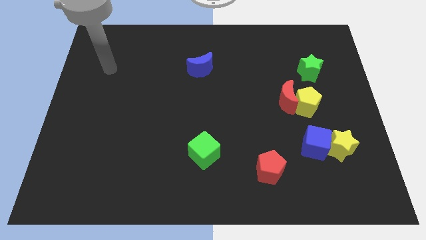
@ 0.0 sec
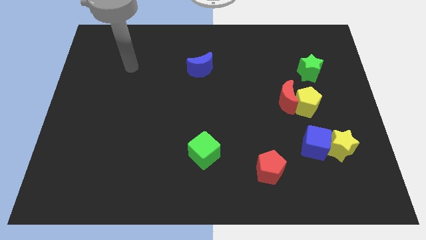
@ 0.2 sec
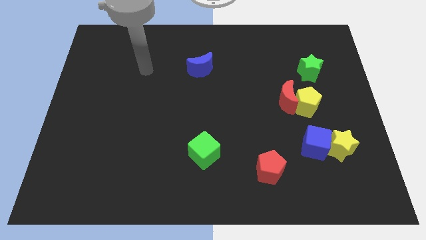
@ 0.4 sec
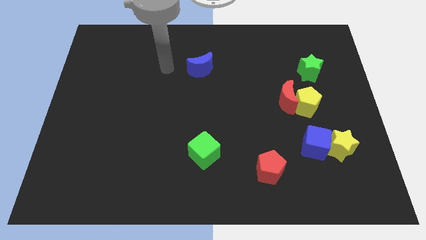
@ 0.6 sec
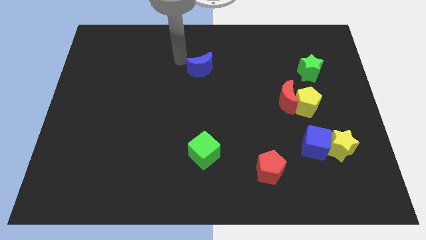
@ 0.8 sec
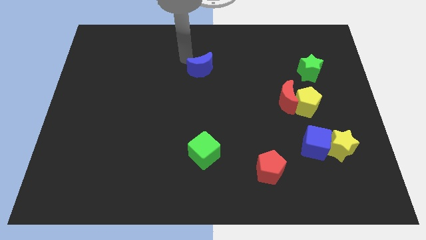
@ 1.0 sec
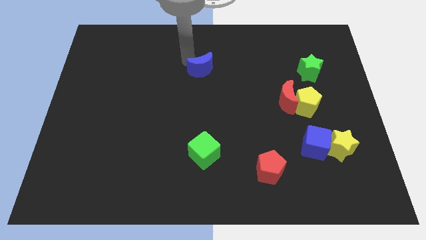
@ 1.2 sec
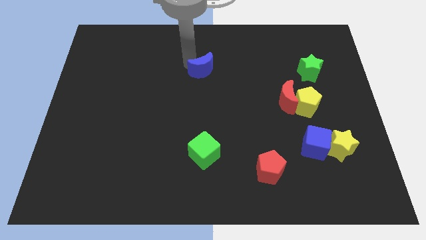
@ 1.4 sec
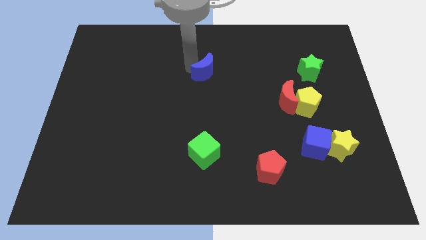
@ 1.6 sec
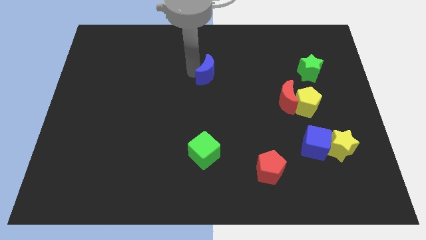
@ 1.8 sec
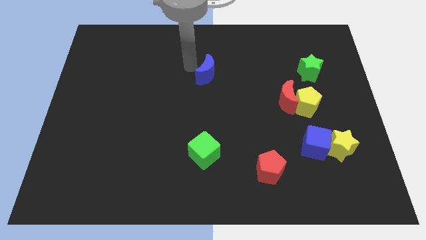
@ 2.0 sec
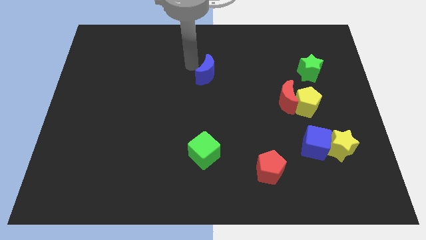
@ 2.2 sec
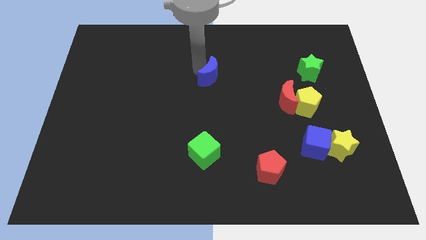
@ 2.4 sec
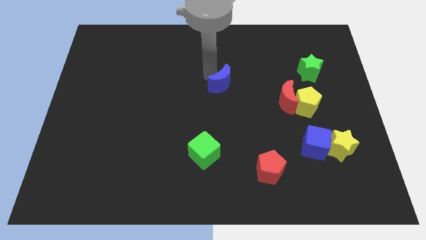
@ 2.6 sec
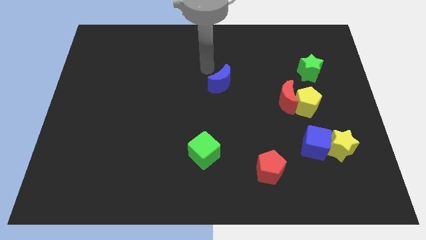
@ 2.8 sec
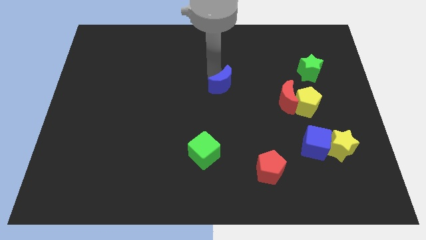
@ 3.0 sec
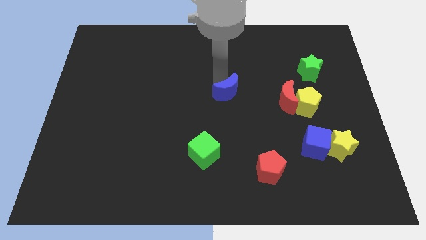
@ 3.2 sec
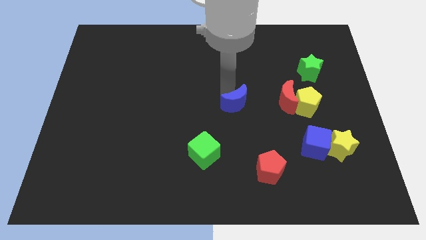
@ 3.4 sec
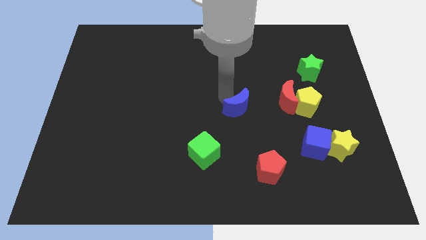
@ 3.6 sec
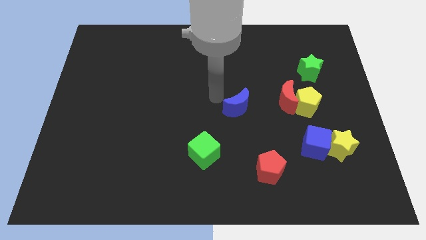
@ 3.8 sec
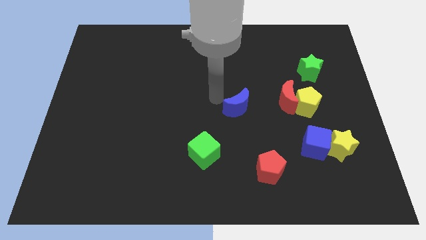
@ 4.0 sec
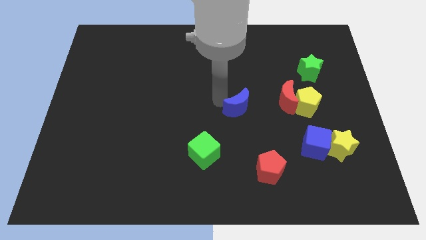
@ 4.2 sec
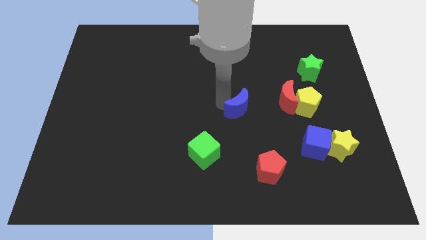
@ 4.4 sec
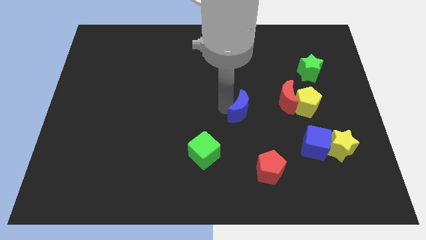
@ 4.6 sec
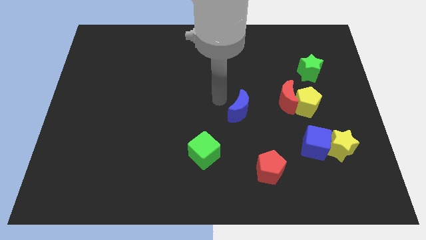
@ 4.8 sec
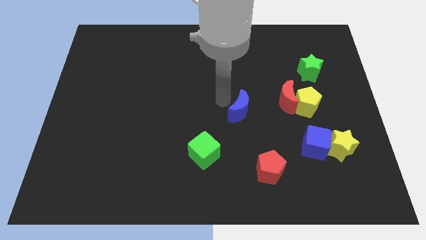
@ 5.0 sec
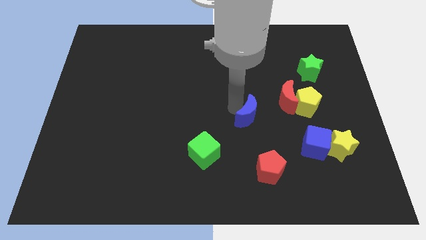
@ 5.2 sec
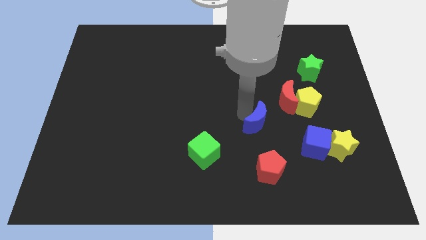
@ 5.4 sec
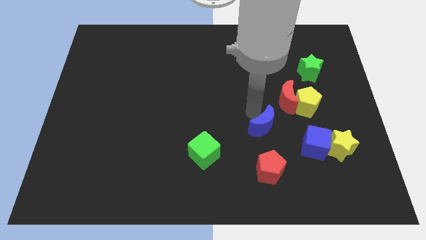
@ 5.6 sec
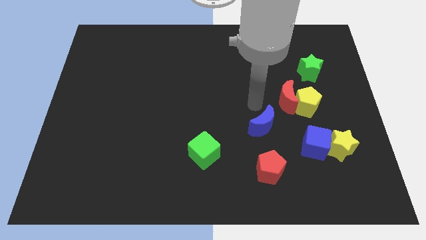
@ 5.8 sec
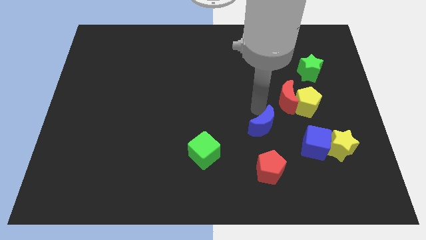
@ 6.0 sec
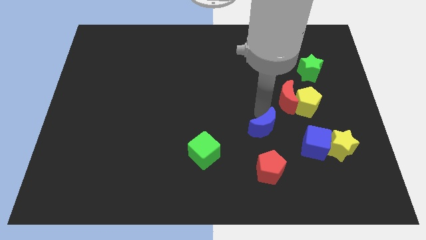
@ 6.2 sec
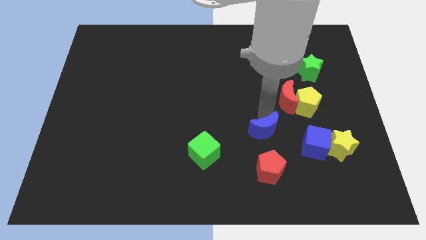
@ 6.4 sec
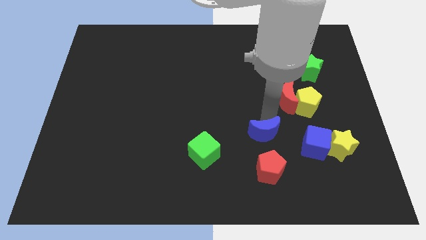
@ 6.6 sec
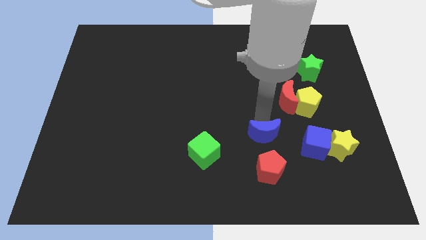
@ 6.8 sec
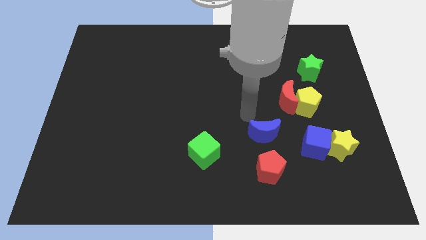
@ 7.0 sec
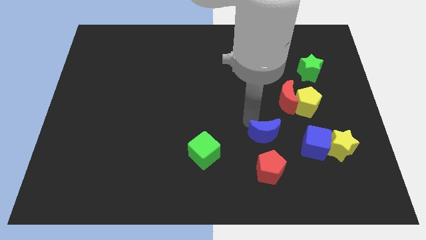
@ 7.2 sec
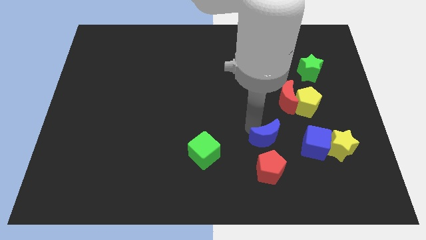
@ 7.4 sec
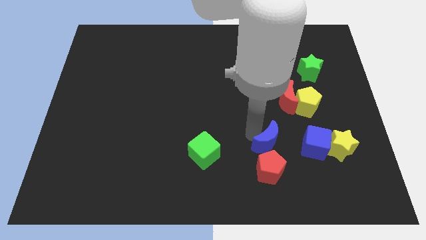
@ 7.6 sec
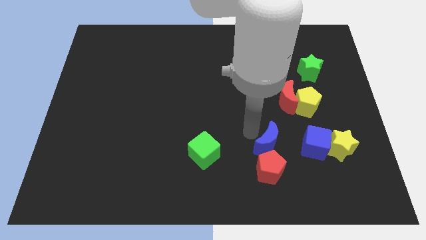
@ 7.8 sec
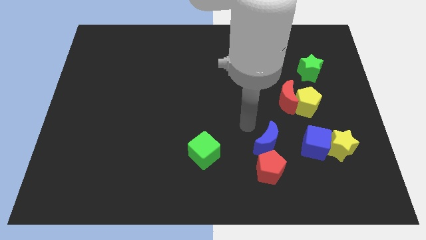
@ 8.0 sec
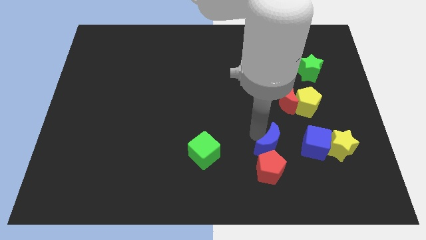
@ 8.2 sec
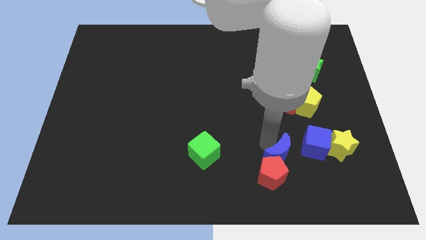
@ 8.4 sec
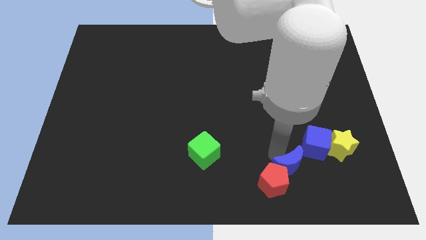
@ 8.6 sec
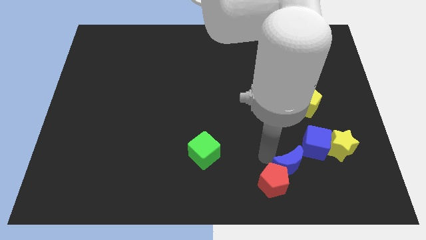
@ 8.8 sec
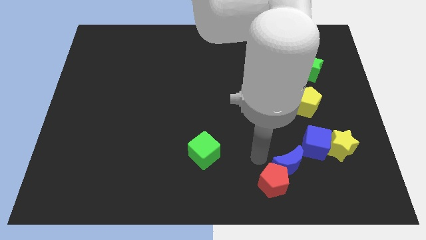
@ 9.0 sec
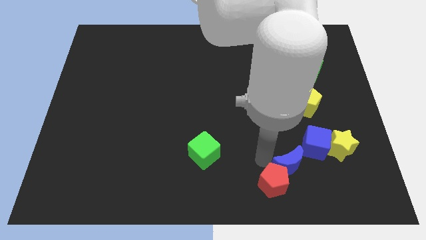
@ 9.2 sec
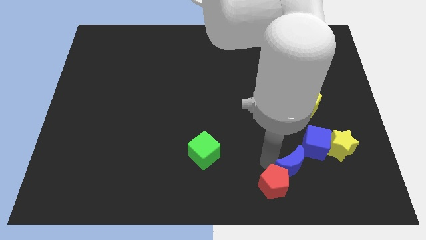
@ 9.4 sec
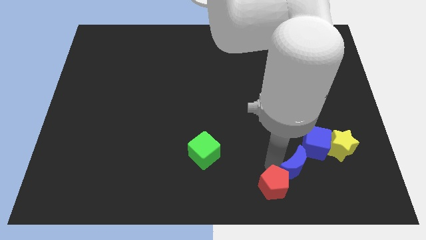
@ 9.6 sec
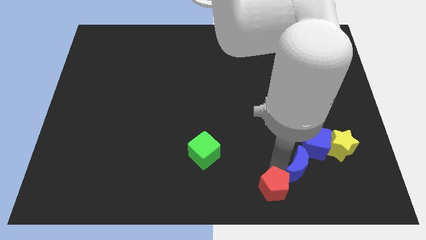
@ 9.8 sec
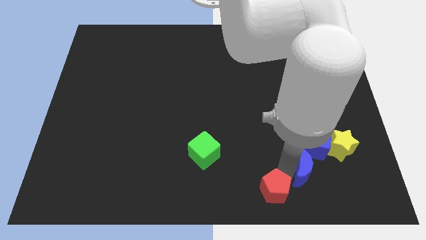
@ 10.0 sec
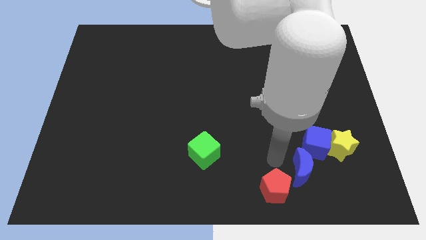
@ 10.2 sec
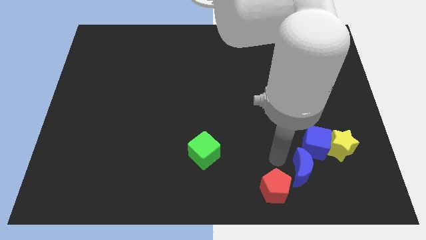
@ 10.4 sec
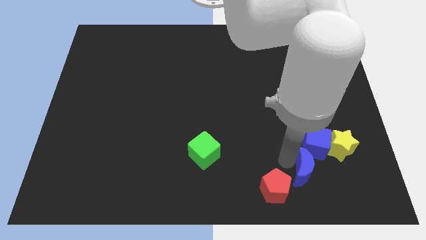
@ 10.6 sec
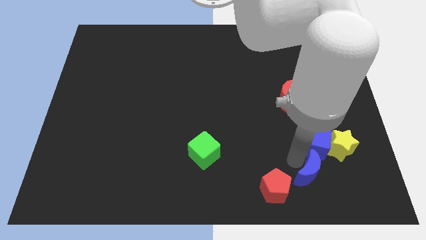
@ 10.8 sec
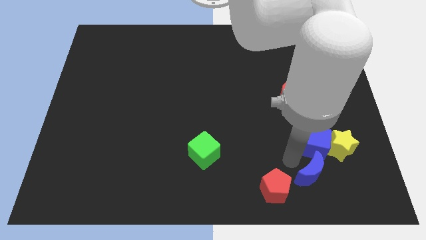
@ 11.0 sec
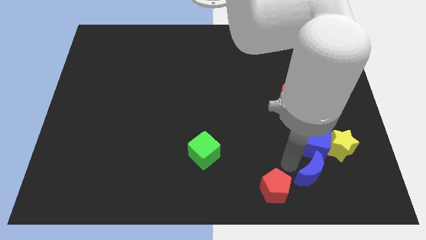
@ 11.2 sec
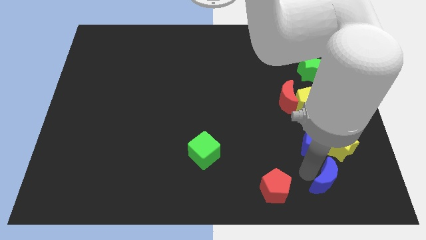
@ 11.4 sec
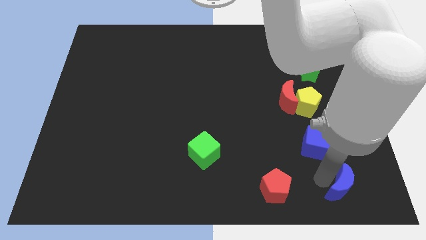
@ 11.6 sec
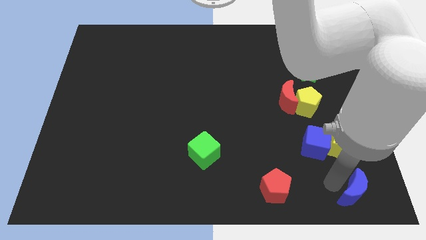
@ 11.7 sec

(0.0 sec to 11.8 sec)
slide the blue moon to the bottom right
